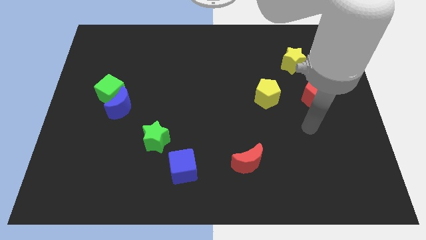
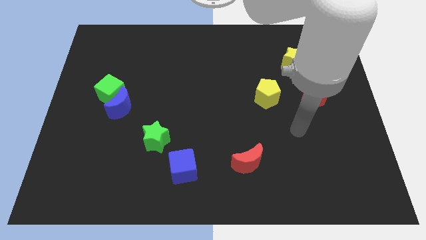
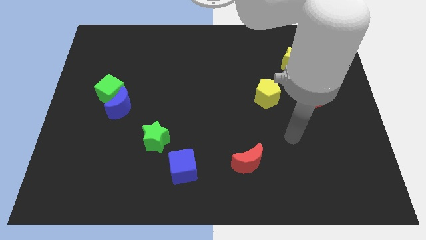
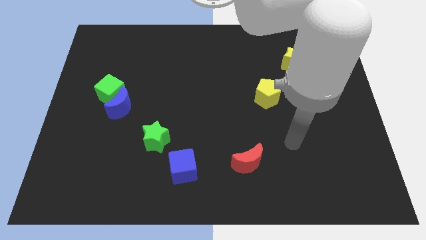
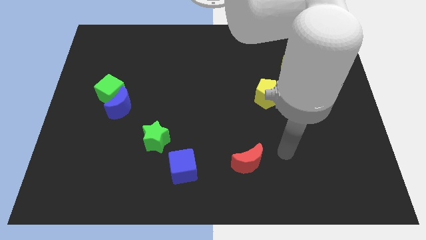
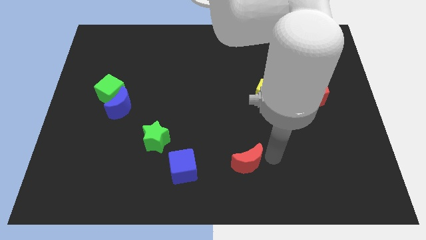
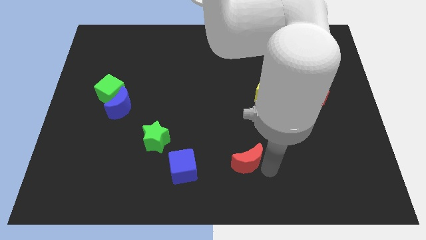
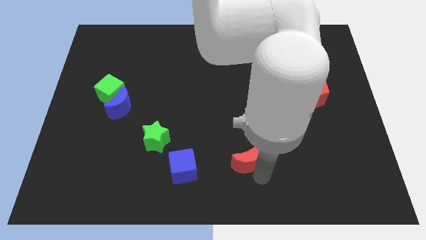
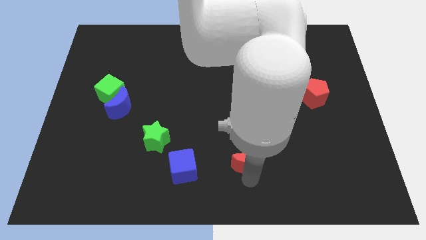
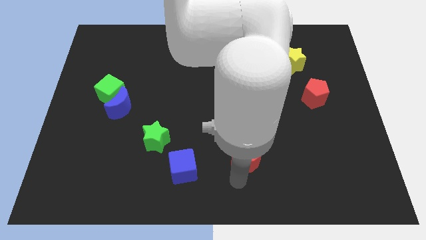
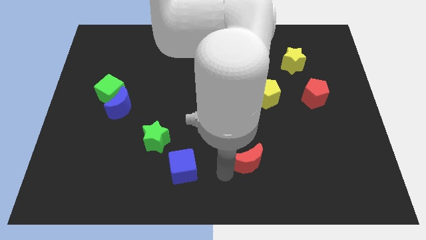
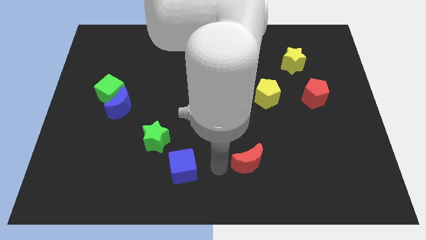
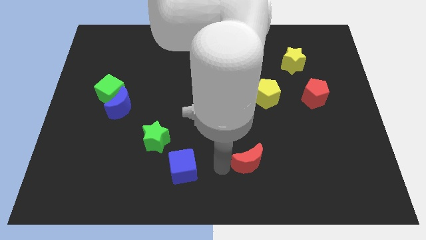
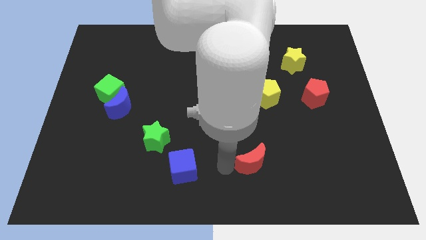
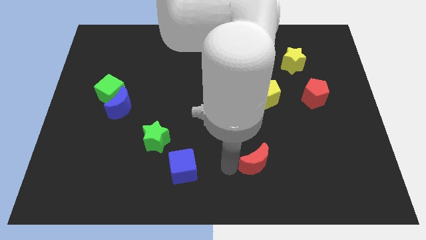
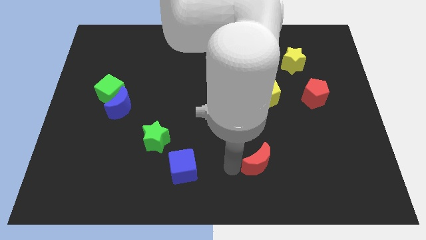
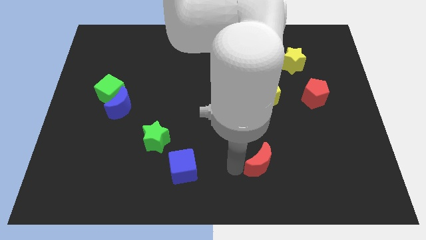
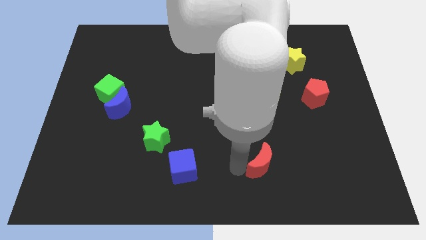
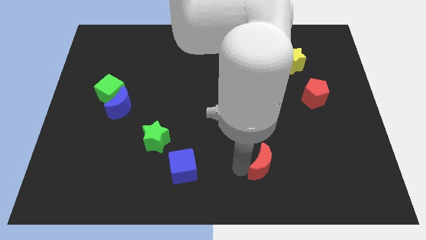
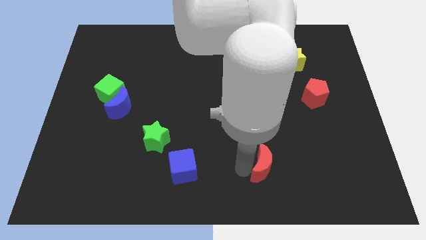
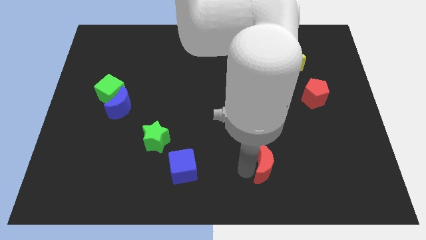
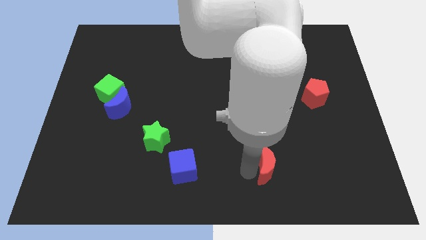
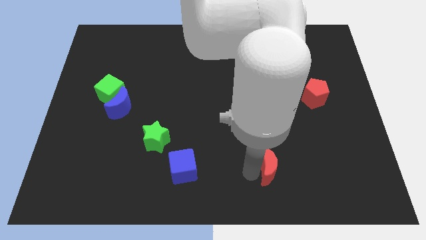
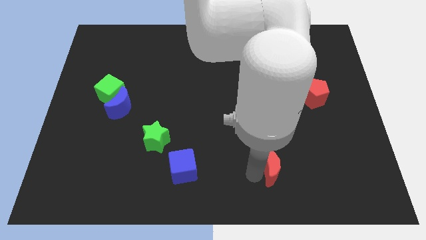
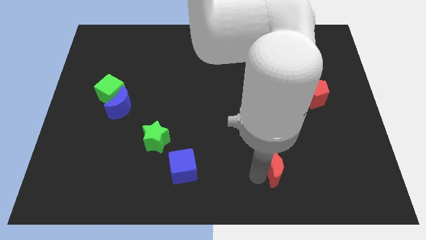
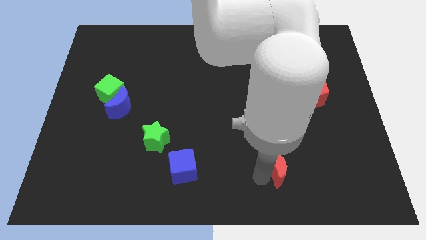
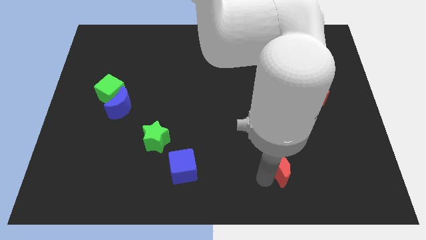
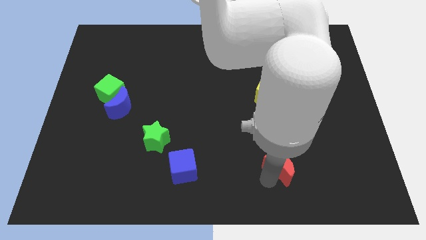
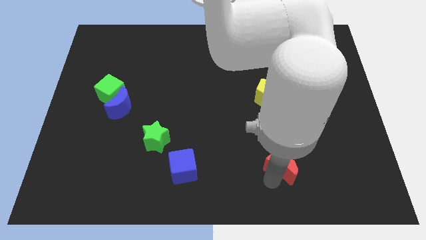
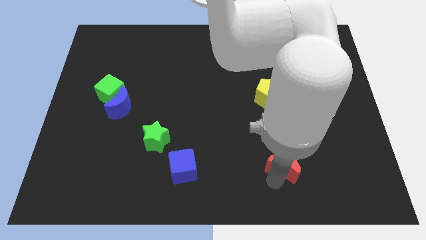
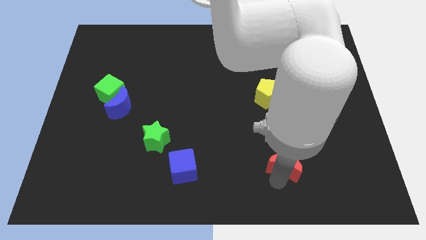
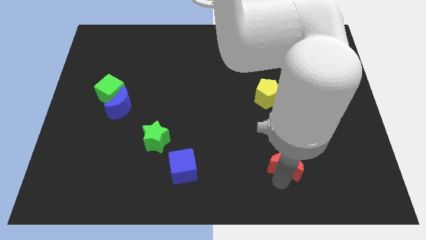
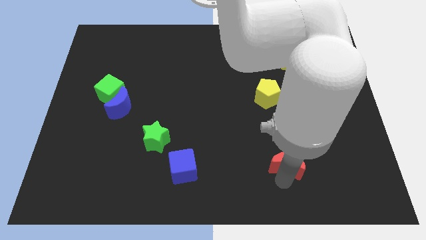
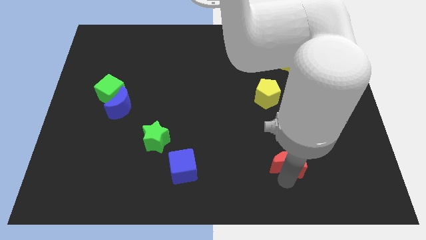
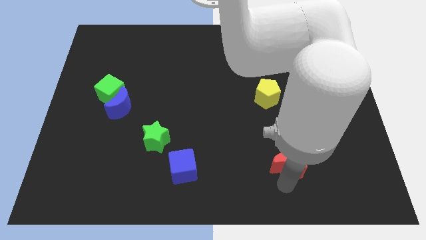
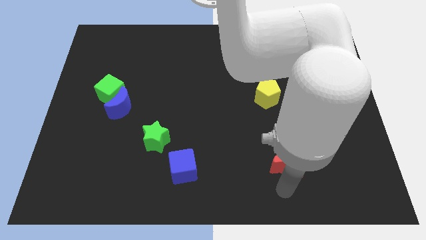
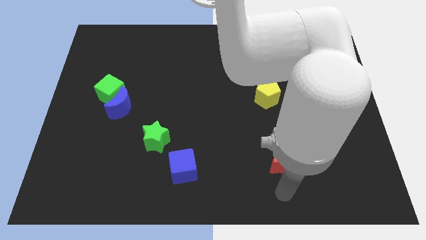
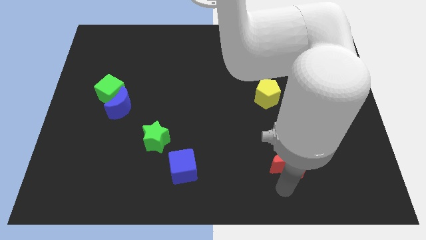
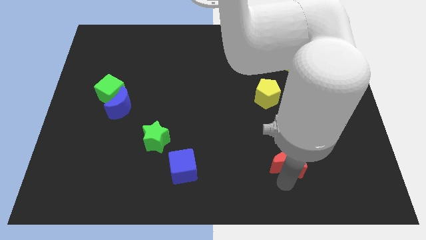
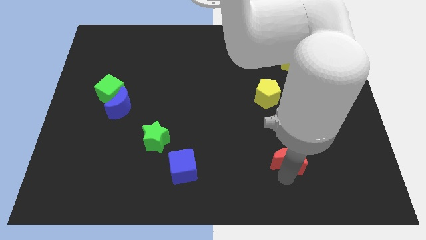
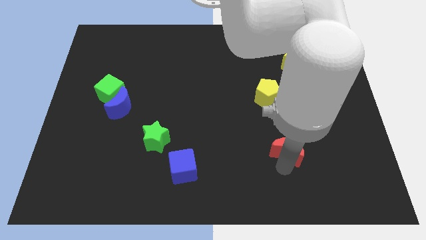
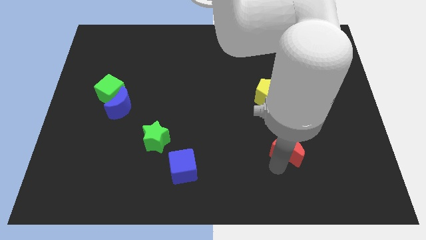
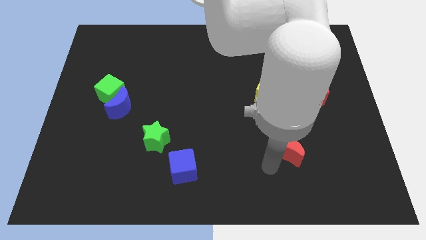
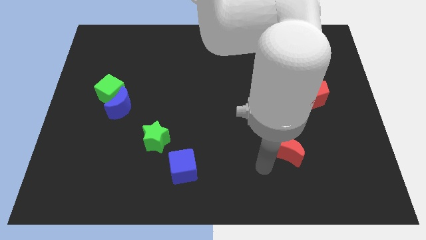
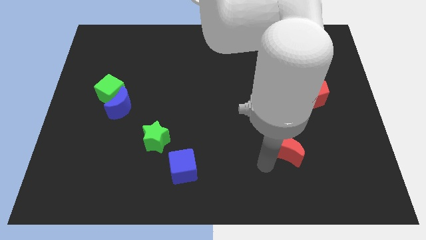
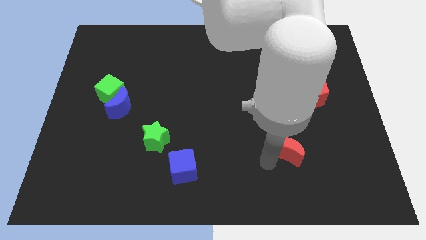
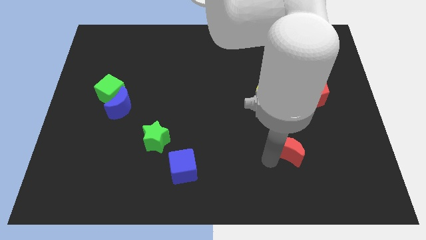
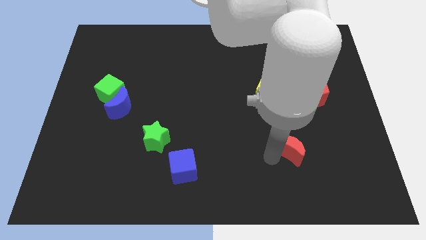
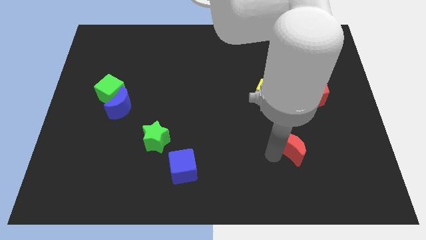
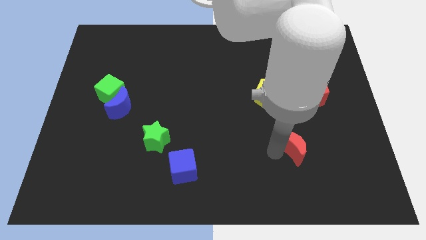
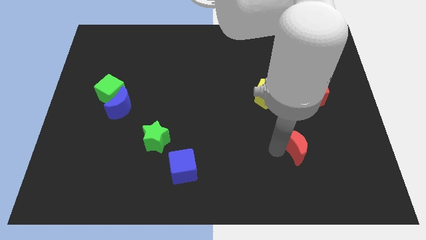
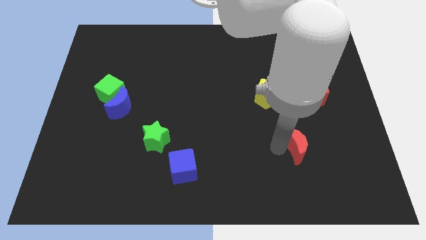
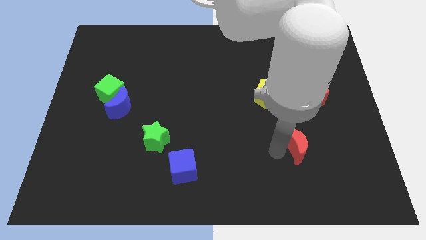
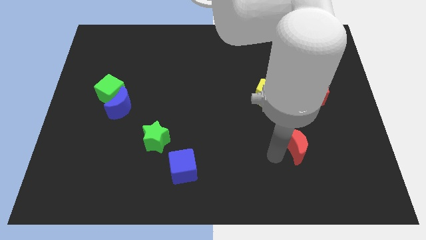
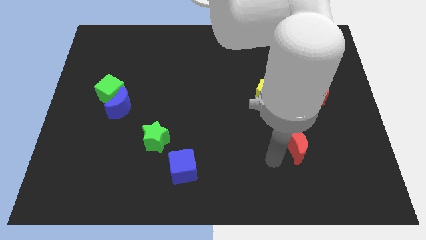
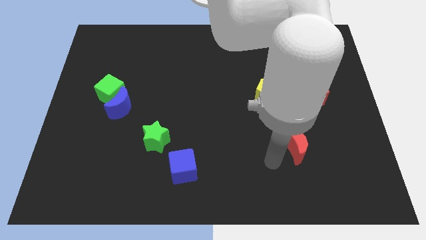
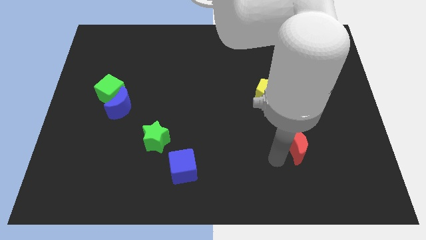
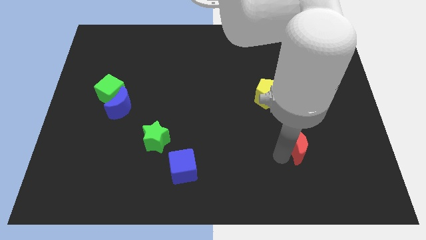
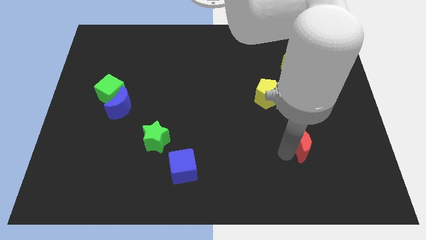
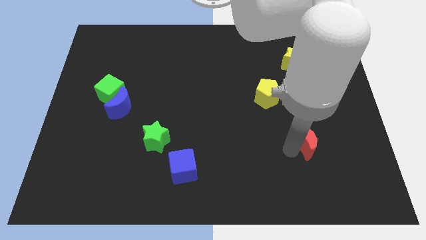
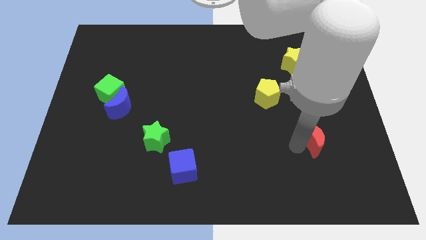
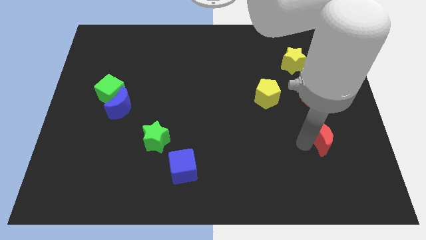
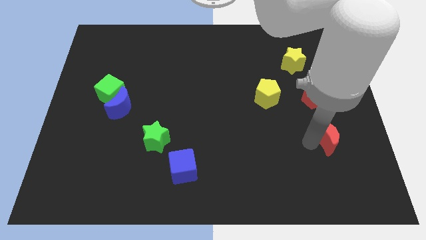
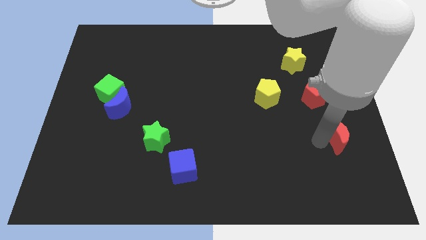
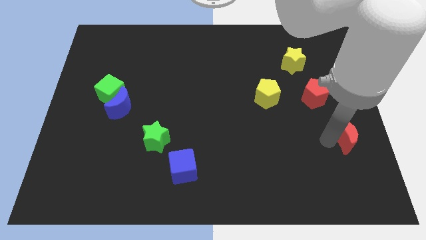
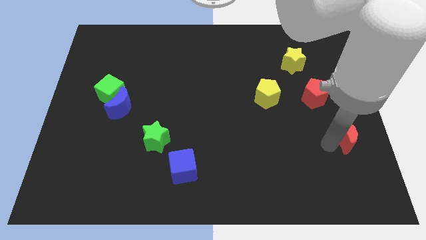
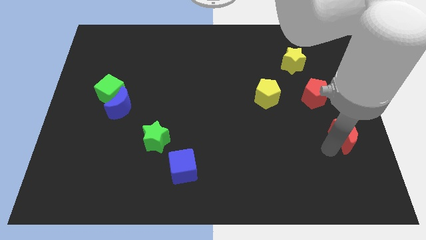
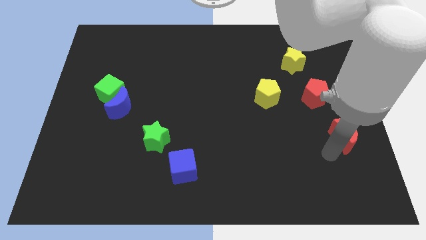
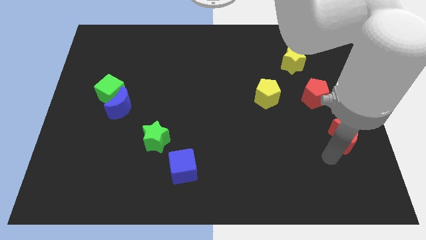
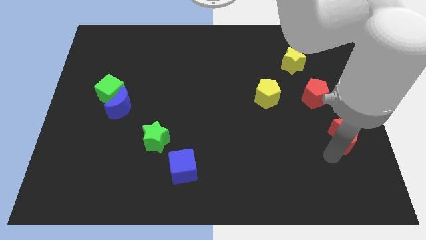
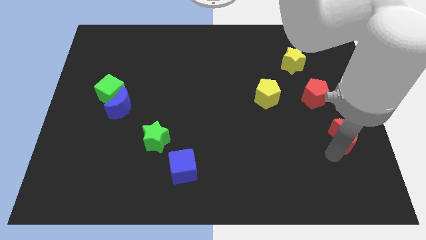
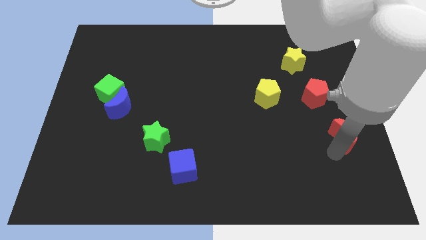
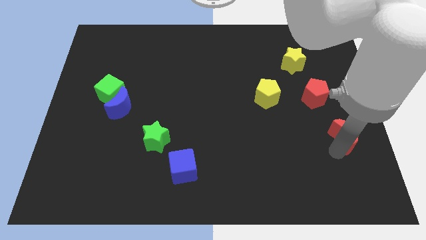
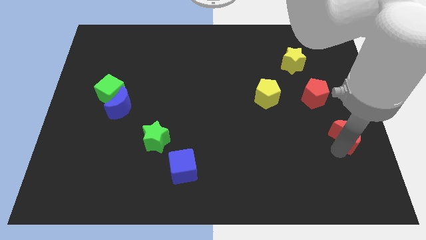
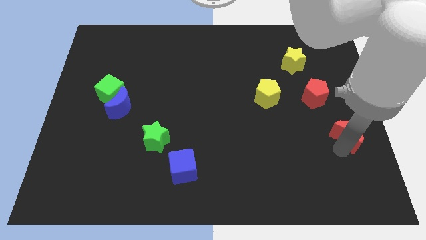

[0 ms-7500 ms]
push the red moon to the center right
